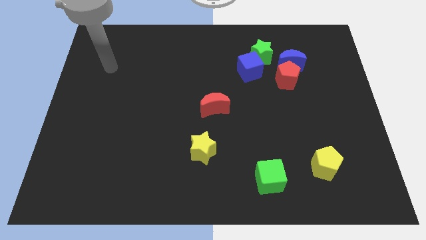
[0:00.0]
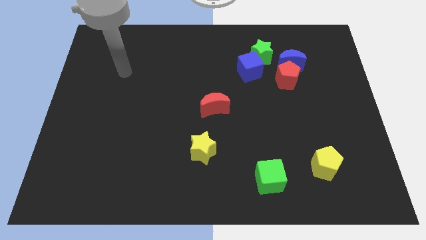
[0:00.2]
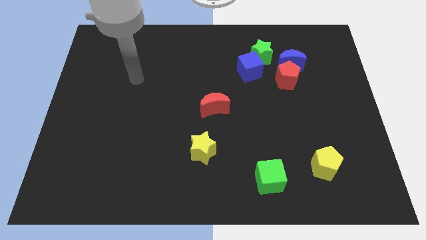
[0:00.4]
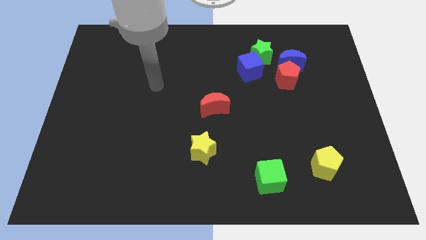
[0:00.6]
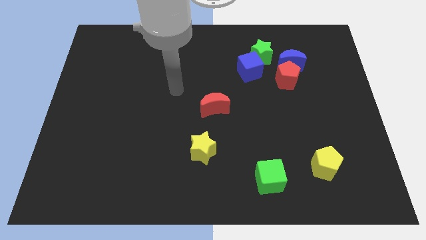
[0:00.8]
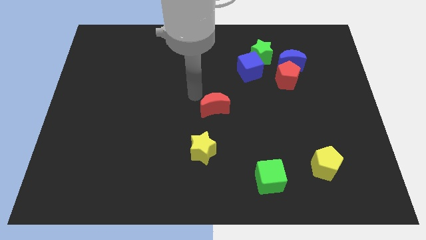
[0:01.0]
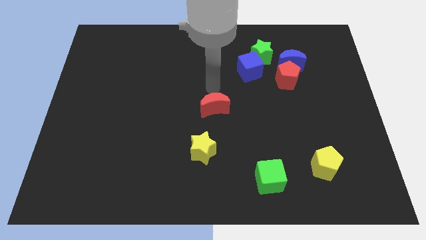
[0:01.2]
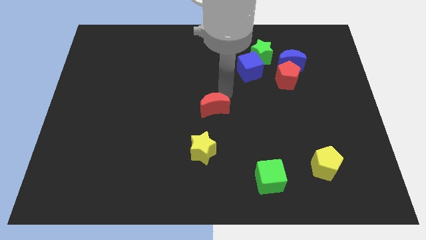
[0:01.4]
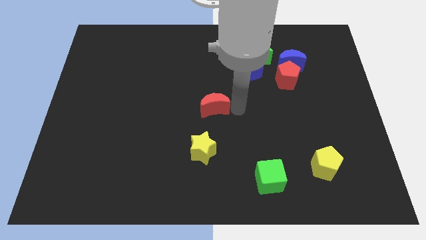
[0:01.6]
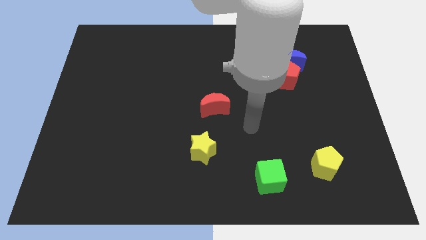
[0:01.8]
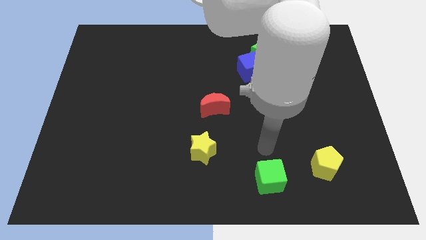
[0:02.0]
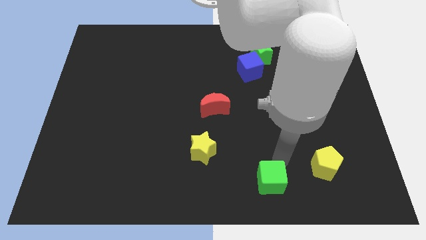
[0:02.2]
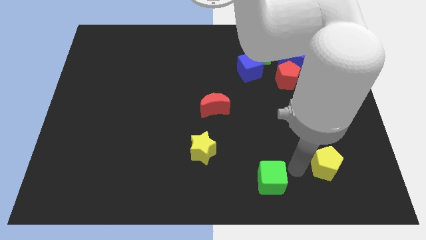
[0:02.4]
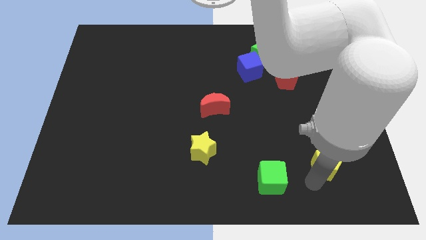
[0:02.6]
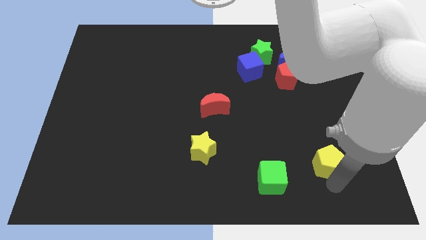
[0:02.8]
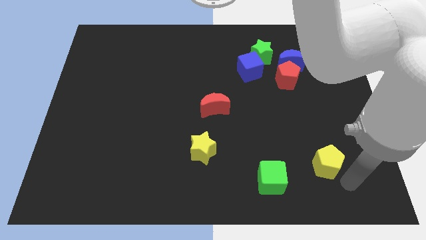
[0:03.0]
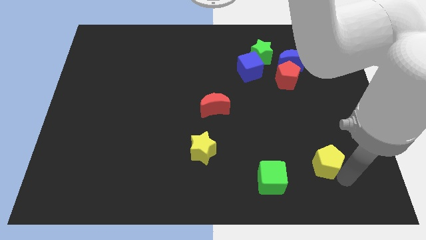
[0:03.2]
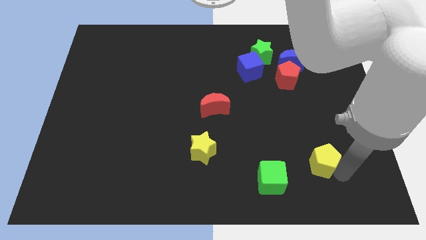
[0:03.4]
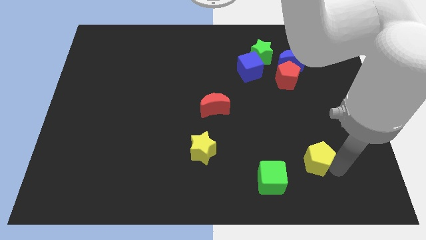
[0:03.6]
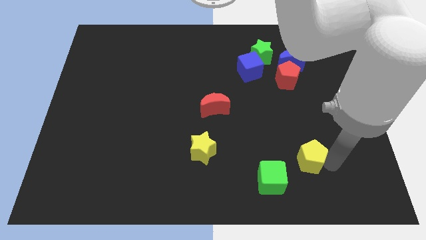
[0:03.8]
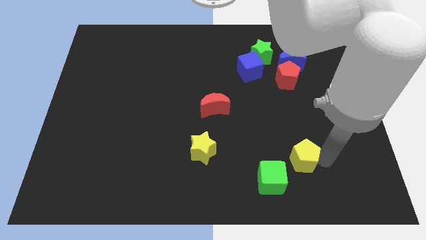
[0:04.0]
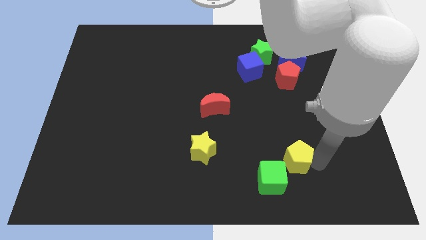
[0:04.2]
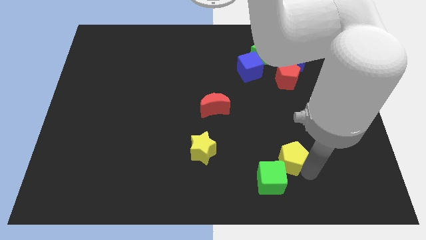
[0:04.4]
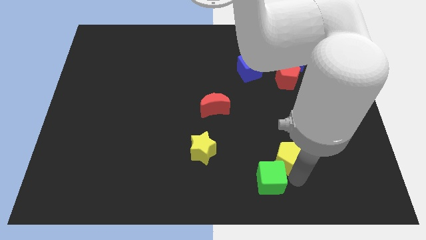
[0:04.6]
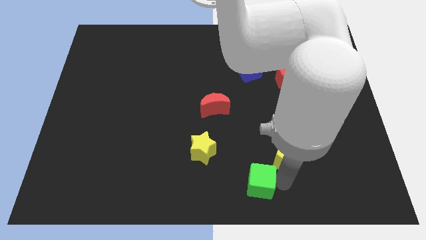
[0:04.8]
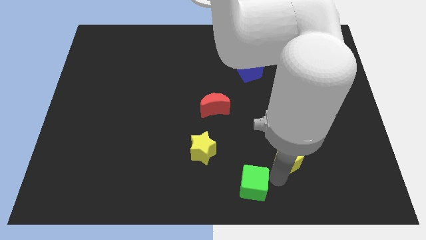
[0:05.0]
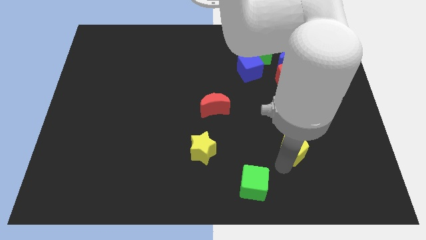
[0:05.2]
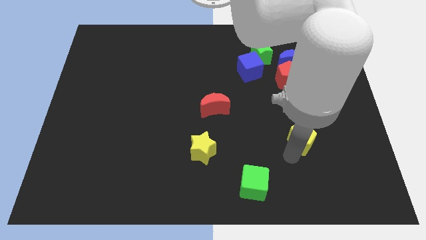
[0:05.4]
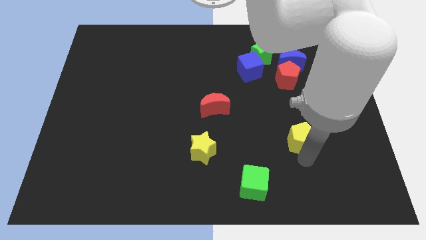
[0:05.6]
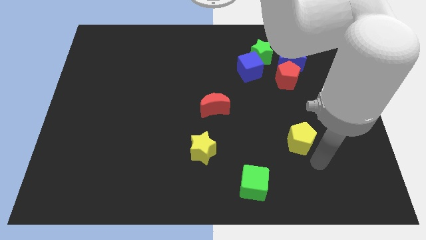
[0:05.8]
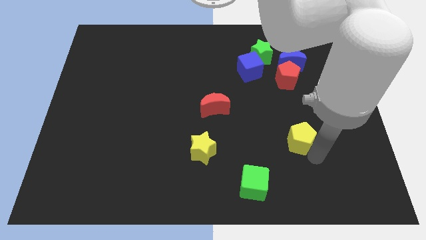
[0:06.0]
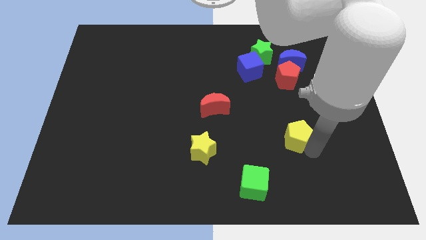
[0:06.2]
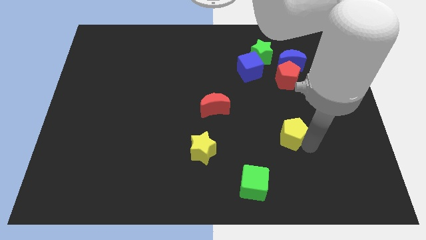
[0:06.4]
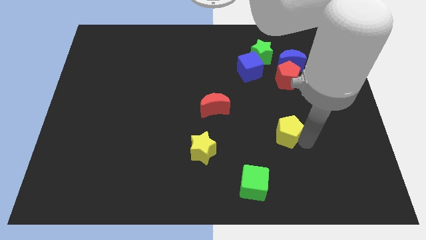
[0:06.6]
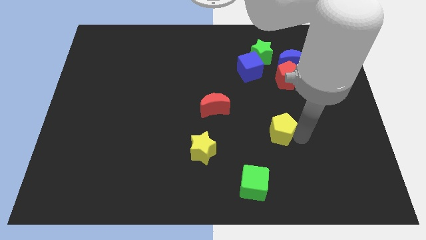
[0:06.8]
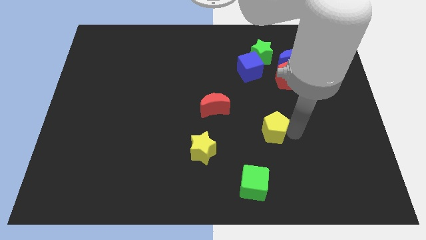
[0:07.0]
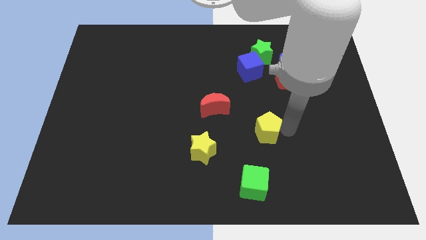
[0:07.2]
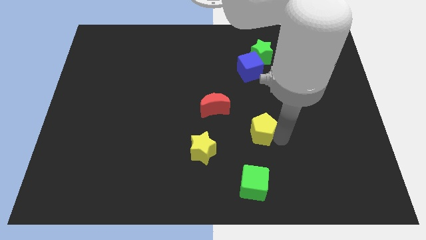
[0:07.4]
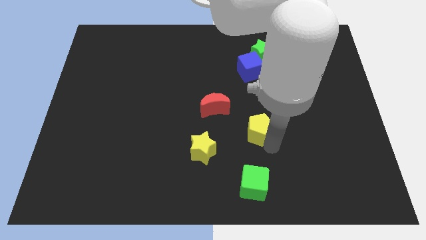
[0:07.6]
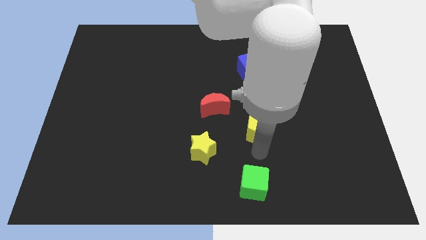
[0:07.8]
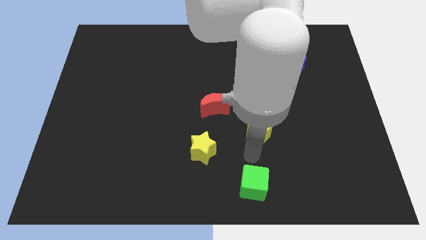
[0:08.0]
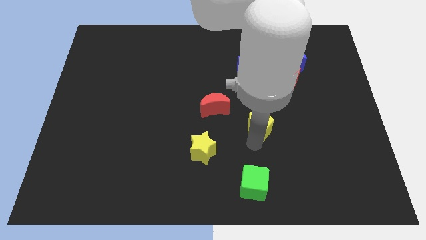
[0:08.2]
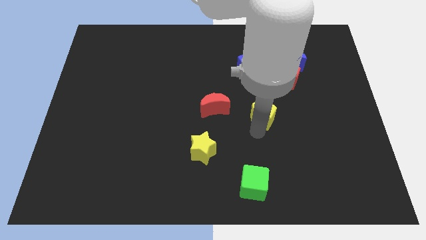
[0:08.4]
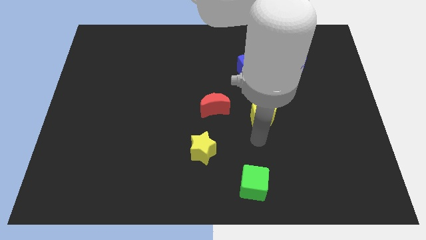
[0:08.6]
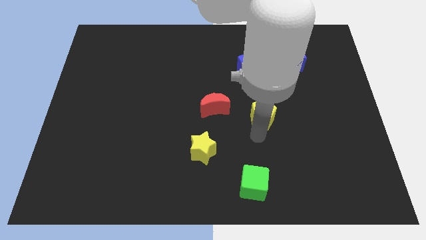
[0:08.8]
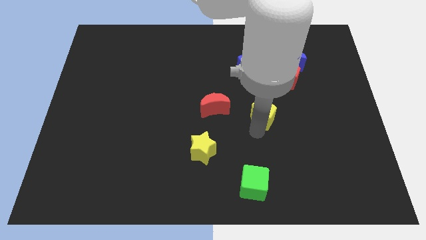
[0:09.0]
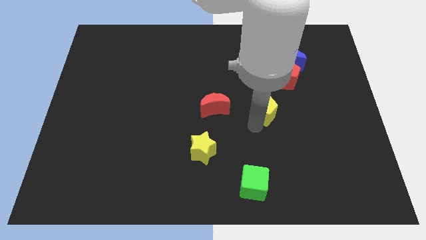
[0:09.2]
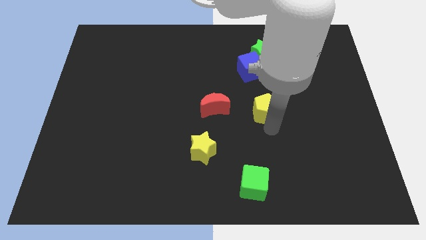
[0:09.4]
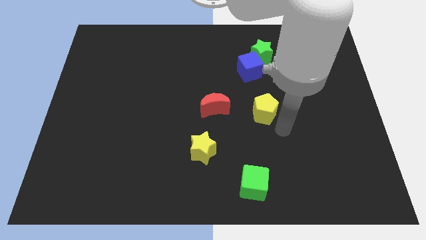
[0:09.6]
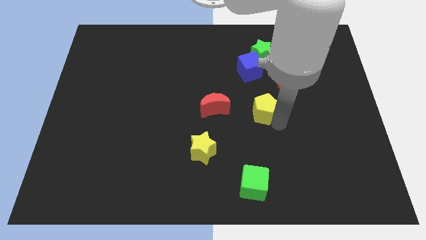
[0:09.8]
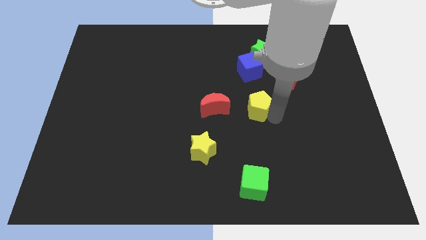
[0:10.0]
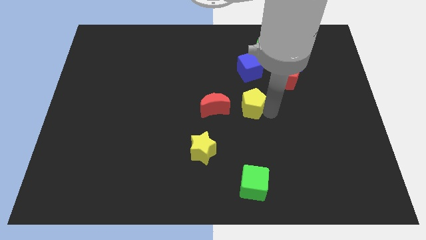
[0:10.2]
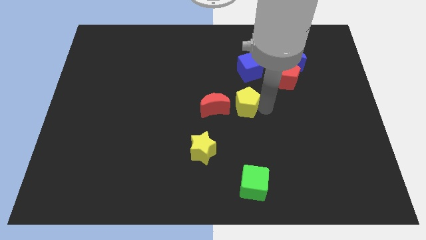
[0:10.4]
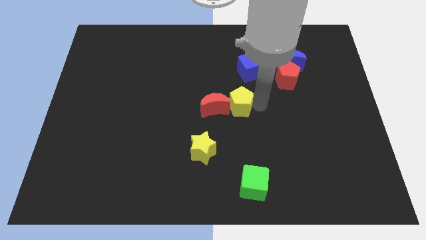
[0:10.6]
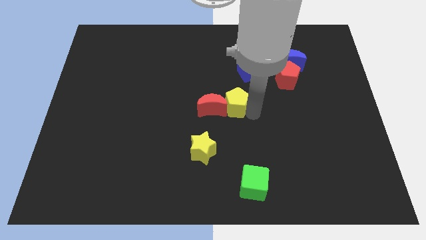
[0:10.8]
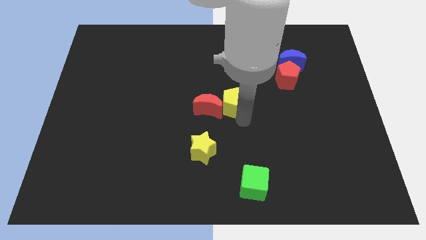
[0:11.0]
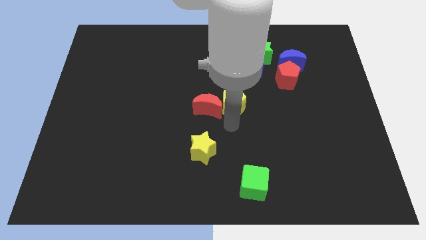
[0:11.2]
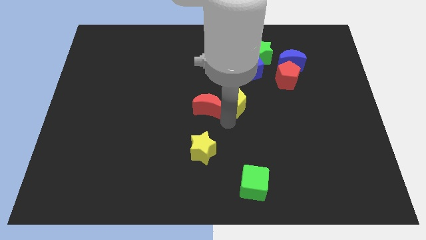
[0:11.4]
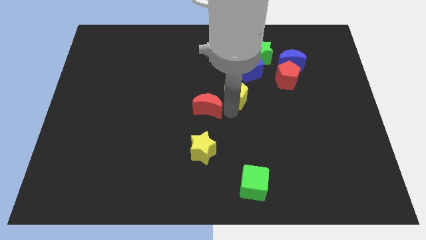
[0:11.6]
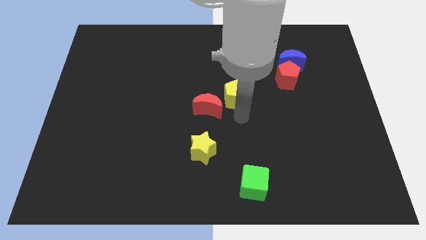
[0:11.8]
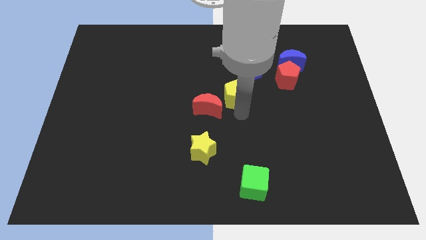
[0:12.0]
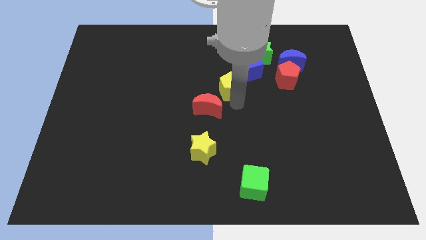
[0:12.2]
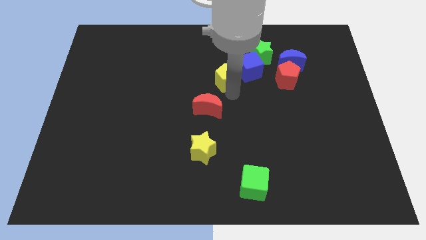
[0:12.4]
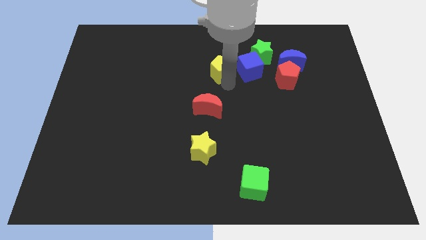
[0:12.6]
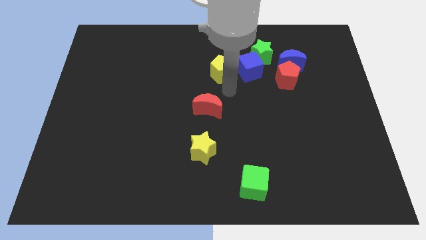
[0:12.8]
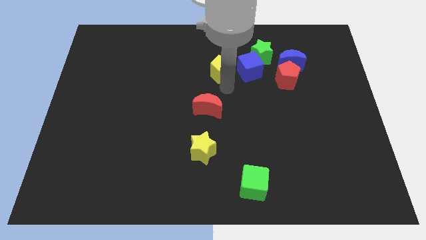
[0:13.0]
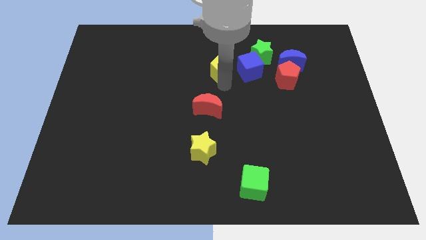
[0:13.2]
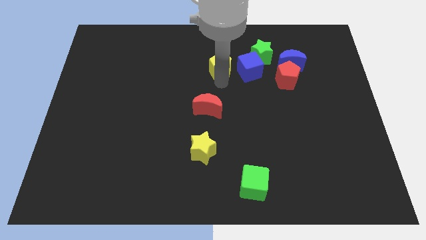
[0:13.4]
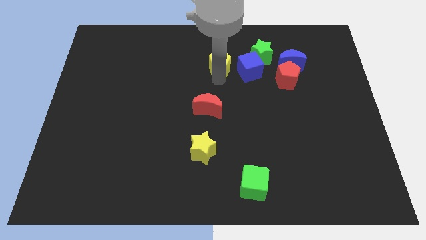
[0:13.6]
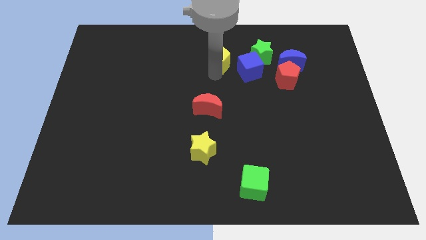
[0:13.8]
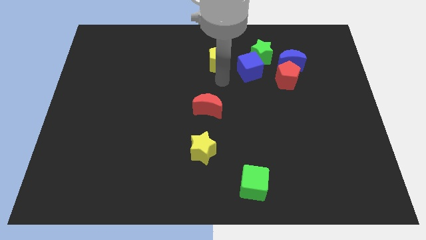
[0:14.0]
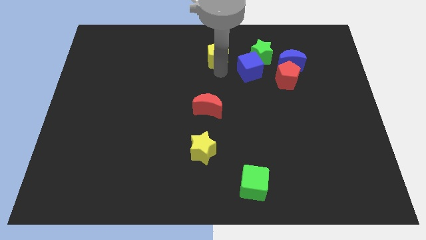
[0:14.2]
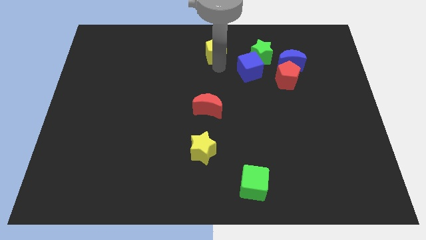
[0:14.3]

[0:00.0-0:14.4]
push the yellow pentagon to the towards your base

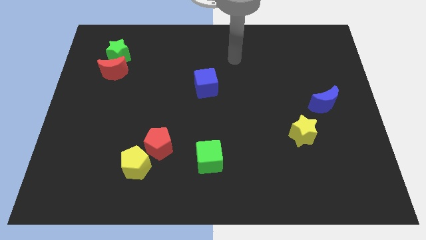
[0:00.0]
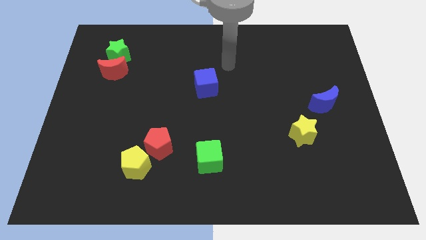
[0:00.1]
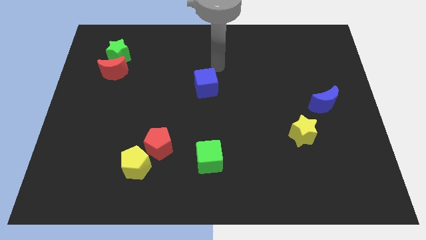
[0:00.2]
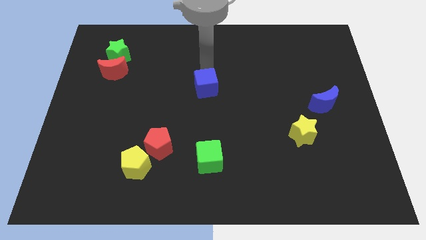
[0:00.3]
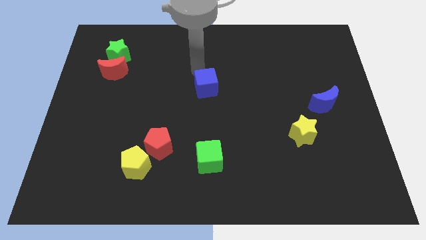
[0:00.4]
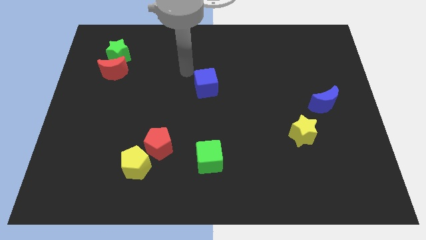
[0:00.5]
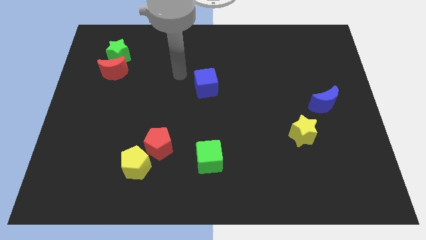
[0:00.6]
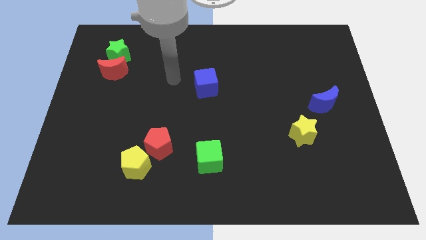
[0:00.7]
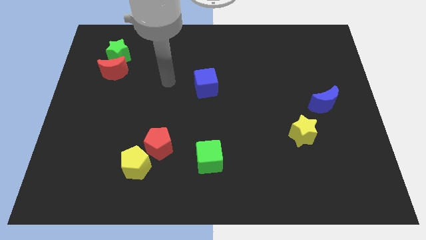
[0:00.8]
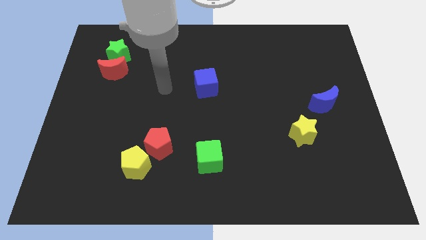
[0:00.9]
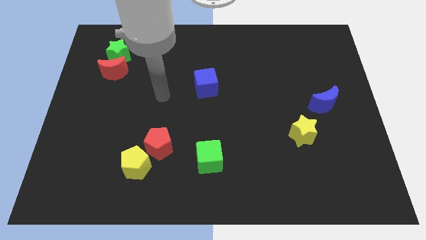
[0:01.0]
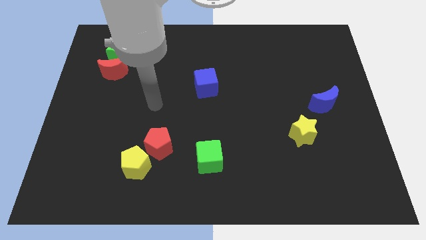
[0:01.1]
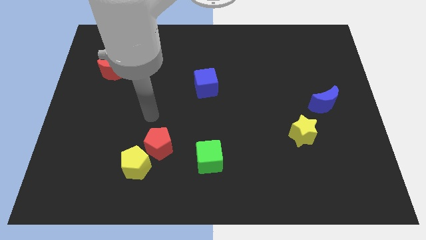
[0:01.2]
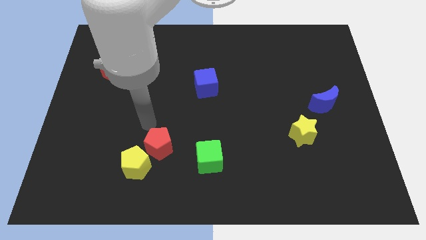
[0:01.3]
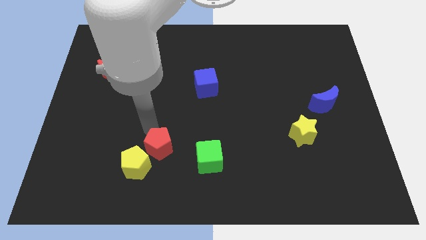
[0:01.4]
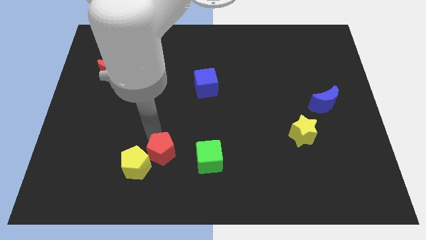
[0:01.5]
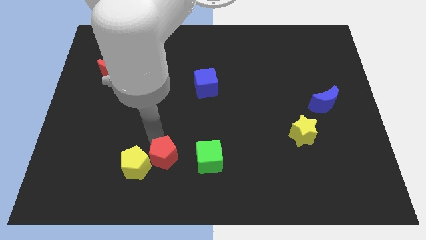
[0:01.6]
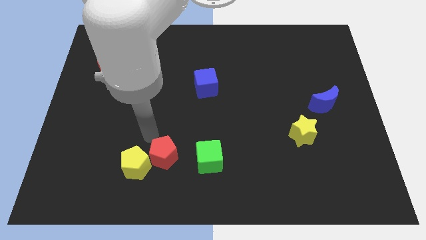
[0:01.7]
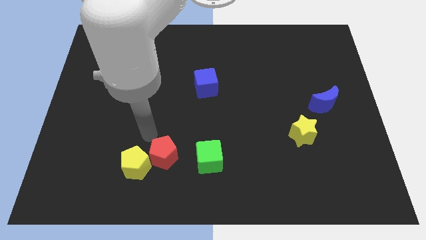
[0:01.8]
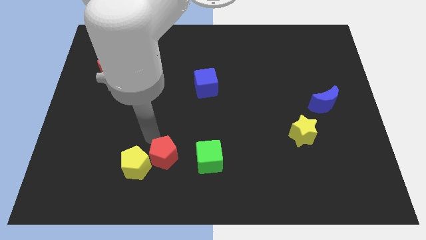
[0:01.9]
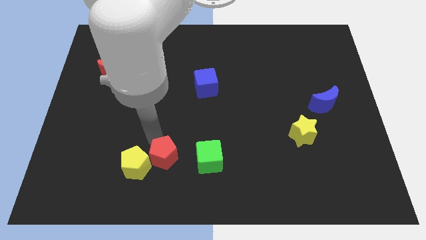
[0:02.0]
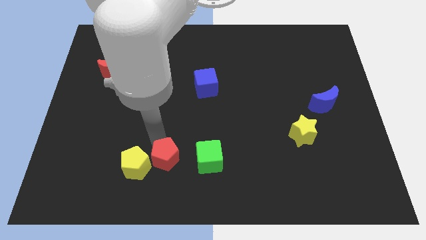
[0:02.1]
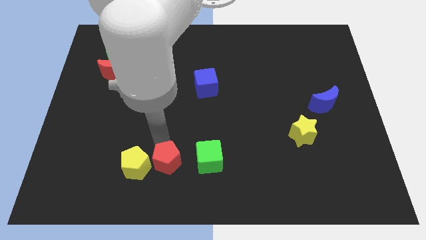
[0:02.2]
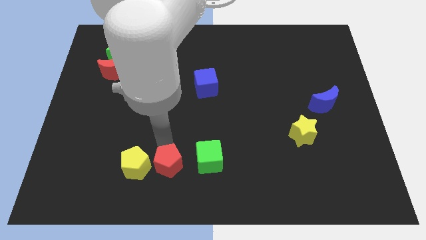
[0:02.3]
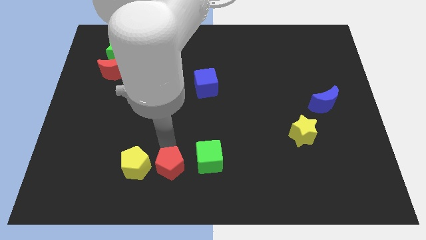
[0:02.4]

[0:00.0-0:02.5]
slide the red pentagon to the bottom side
